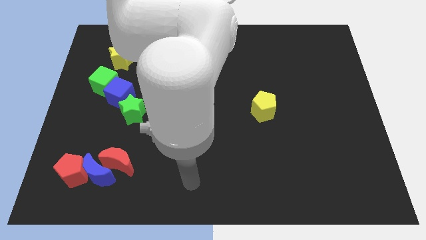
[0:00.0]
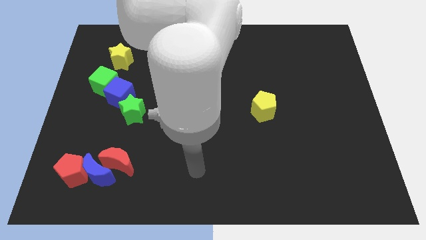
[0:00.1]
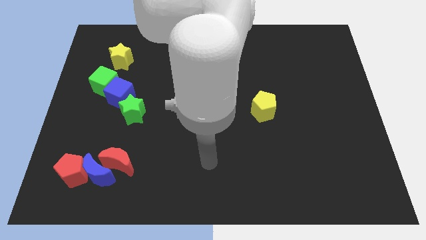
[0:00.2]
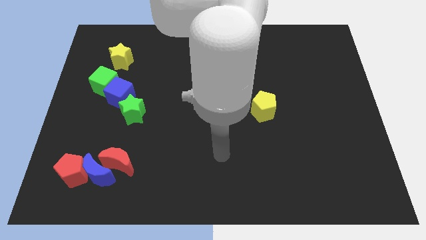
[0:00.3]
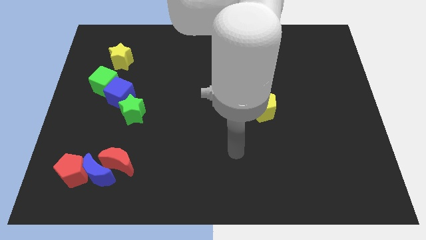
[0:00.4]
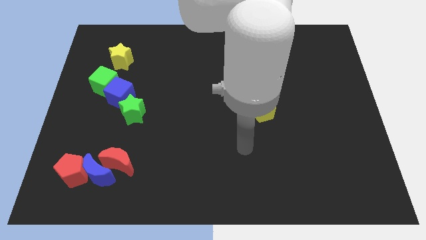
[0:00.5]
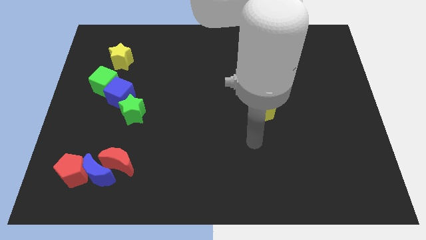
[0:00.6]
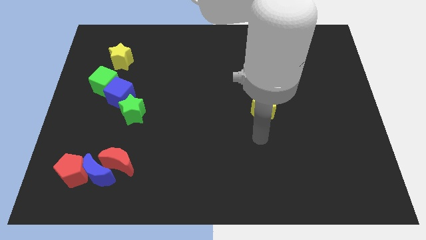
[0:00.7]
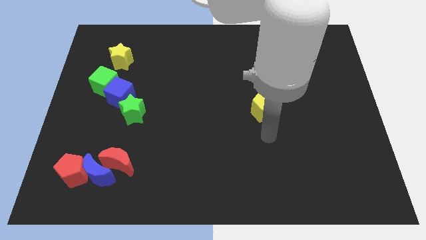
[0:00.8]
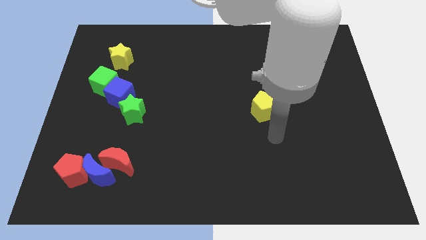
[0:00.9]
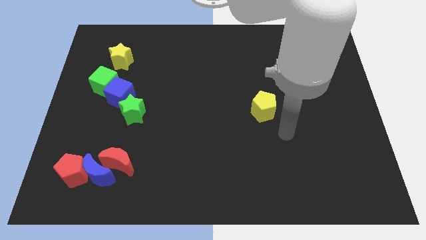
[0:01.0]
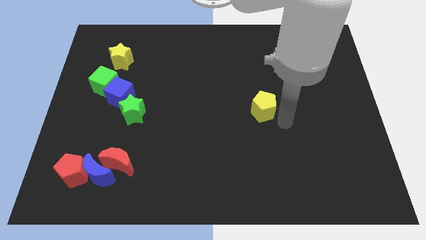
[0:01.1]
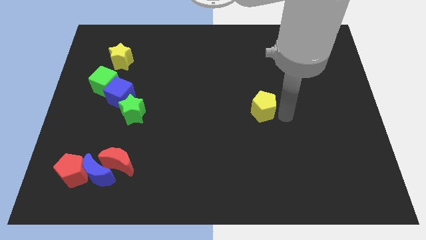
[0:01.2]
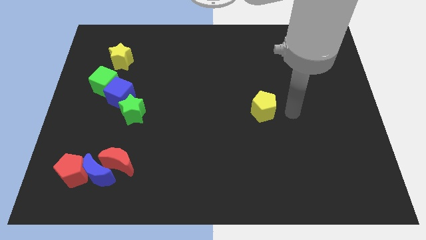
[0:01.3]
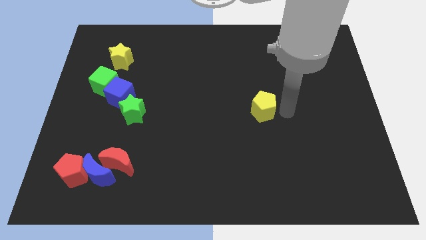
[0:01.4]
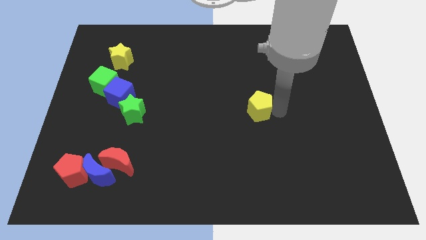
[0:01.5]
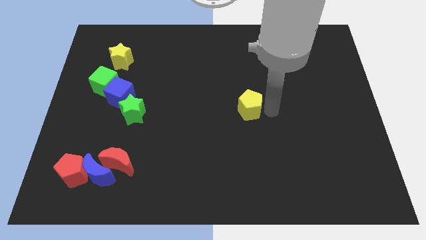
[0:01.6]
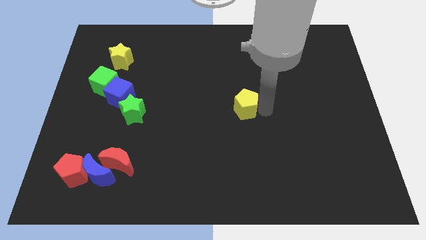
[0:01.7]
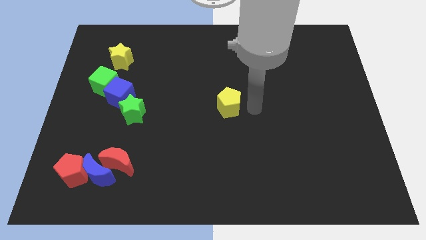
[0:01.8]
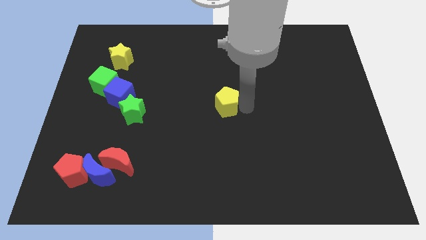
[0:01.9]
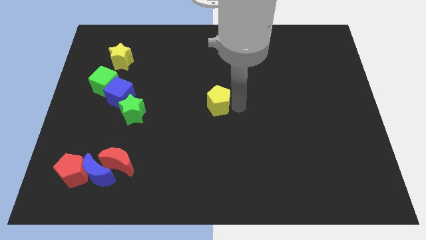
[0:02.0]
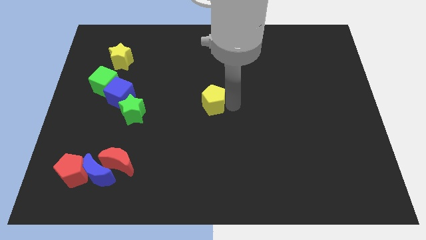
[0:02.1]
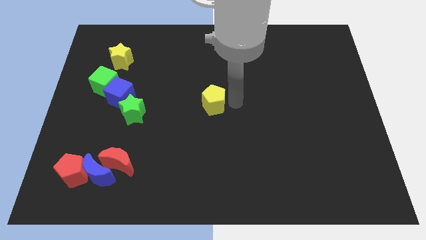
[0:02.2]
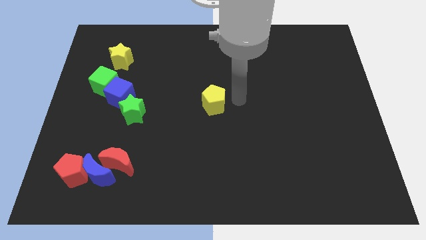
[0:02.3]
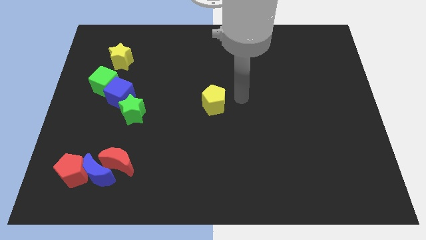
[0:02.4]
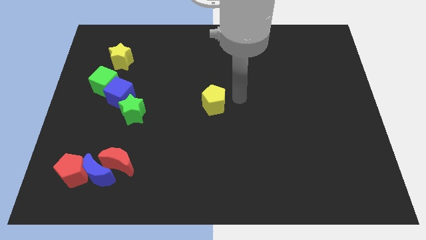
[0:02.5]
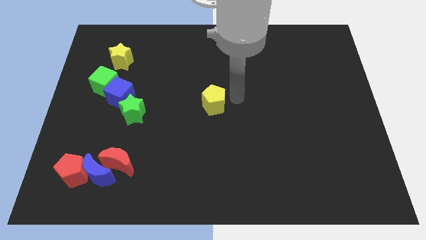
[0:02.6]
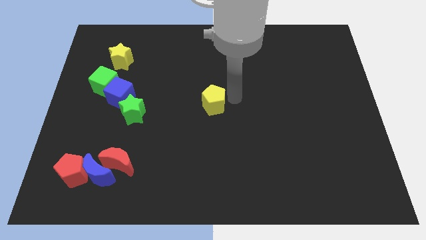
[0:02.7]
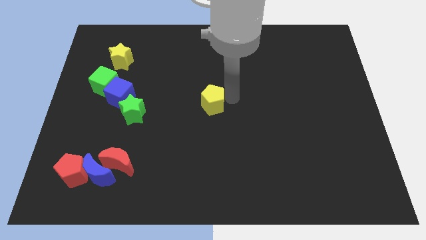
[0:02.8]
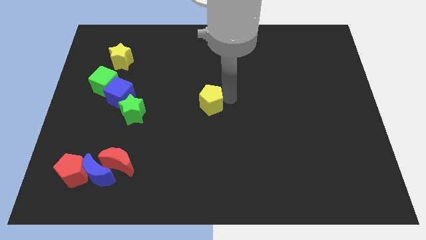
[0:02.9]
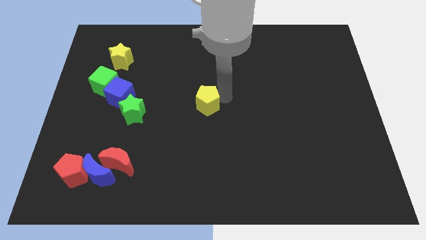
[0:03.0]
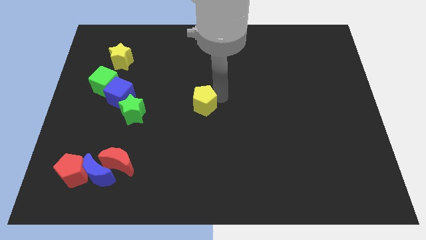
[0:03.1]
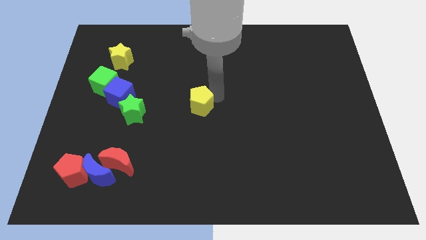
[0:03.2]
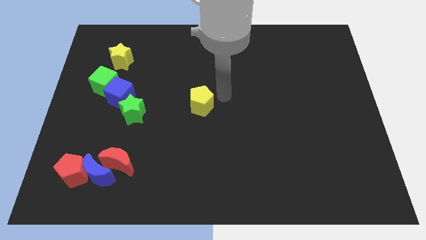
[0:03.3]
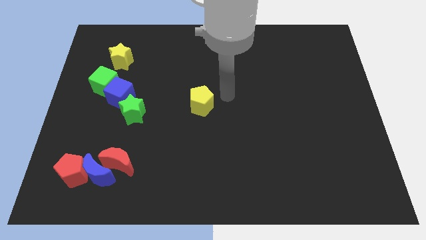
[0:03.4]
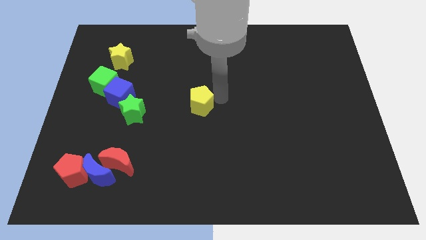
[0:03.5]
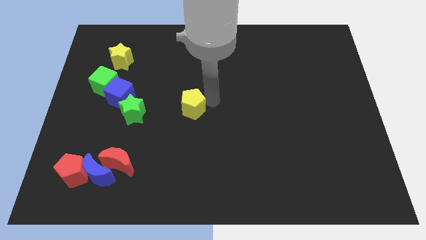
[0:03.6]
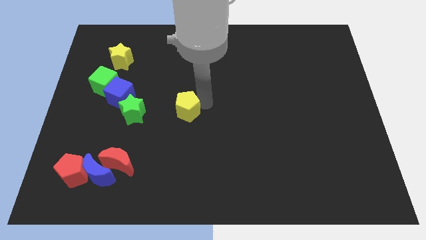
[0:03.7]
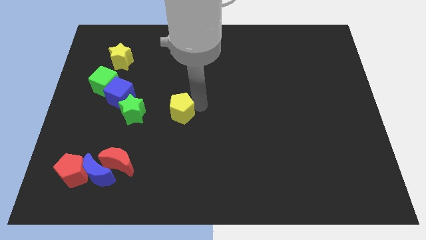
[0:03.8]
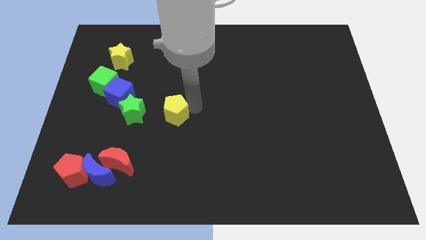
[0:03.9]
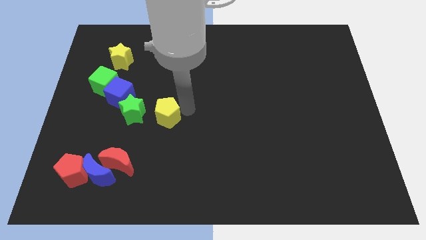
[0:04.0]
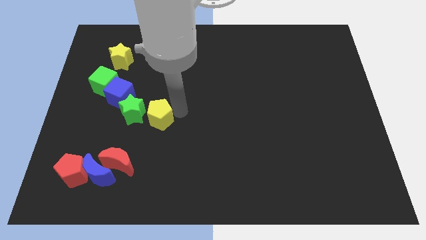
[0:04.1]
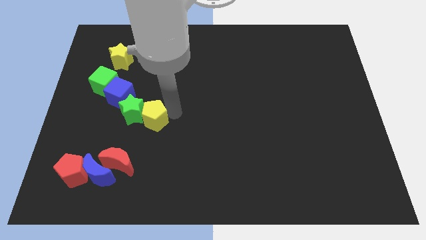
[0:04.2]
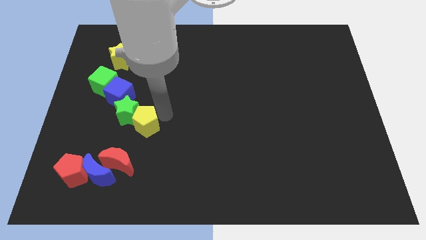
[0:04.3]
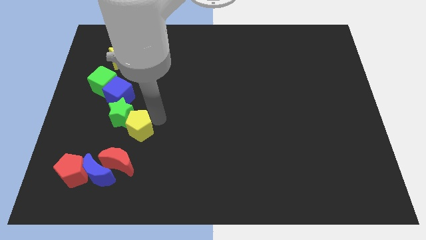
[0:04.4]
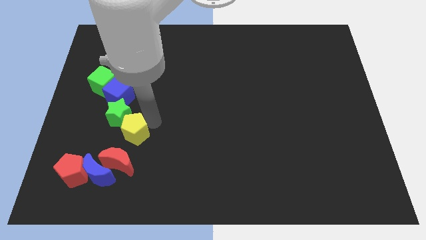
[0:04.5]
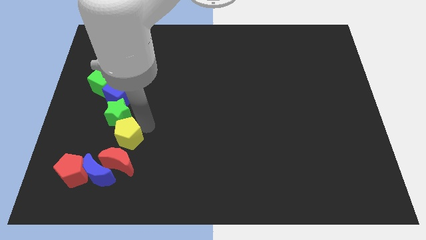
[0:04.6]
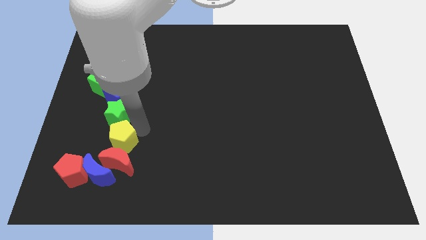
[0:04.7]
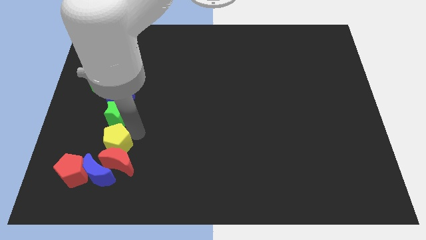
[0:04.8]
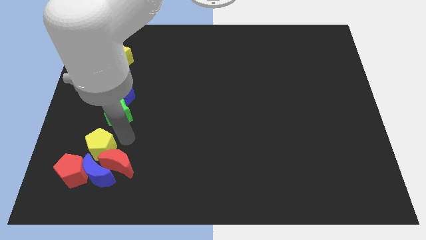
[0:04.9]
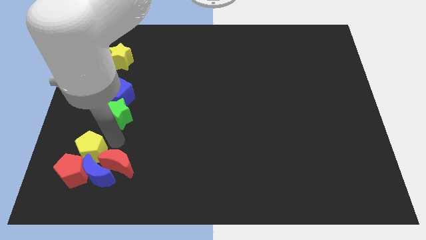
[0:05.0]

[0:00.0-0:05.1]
move the yellow pentagon close to the red pentagon

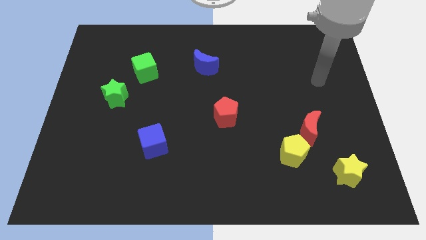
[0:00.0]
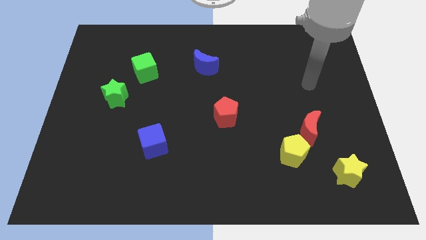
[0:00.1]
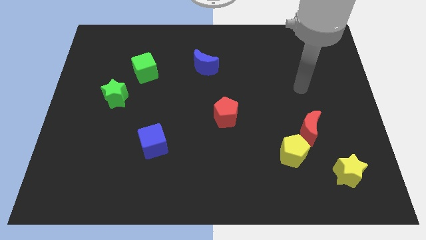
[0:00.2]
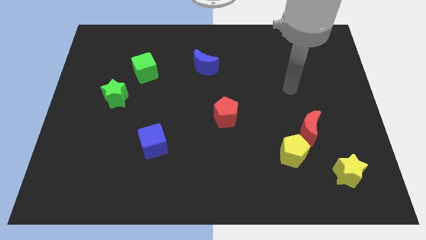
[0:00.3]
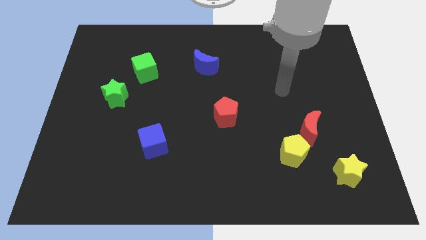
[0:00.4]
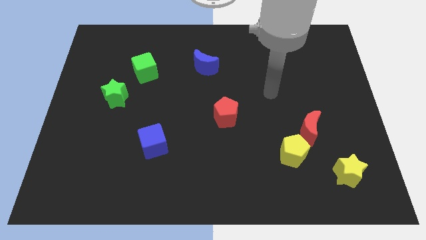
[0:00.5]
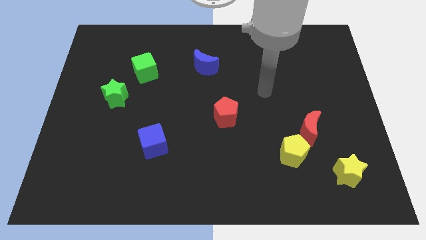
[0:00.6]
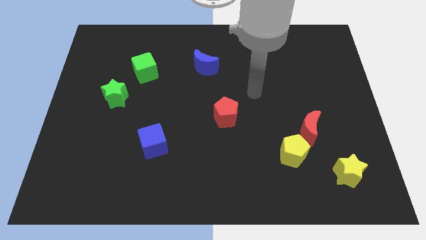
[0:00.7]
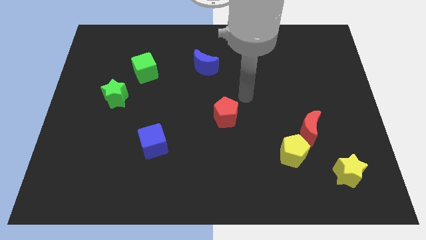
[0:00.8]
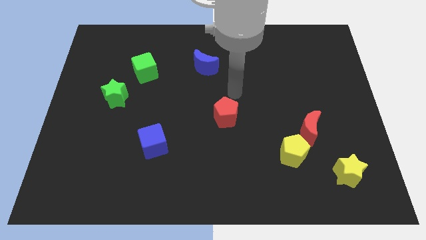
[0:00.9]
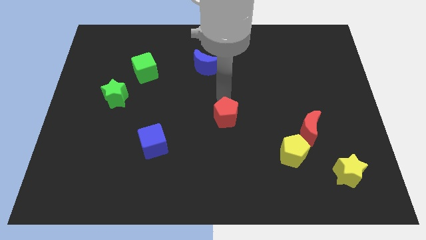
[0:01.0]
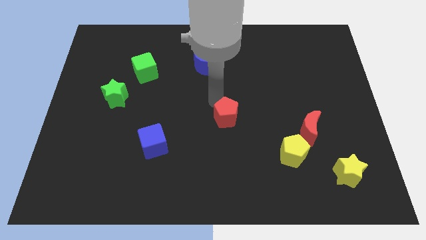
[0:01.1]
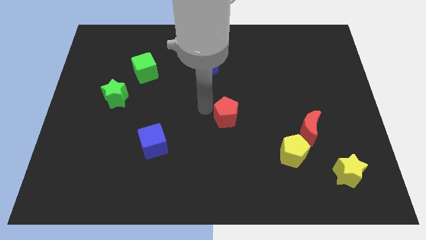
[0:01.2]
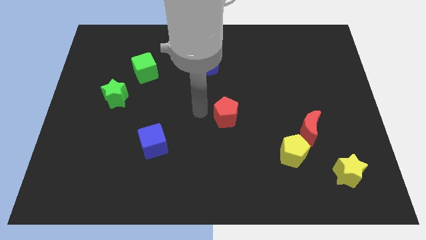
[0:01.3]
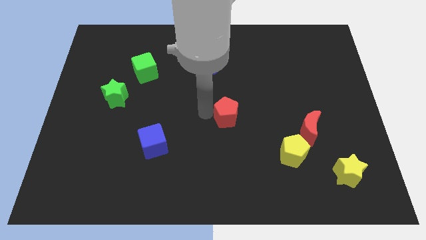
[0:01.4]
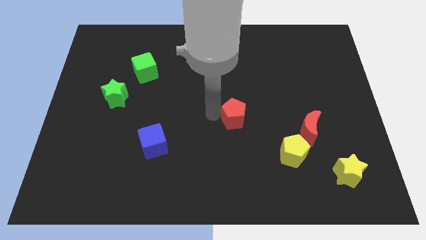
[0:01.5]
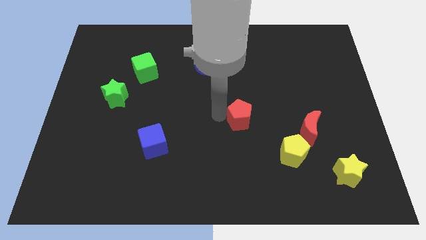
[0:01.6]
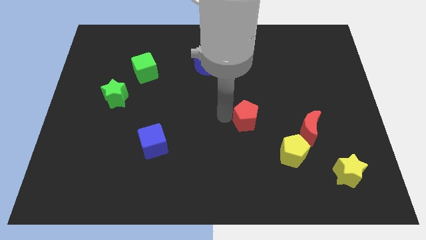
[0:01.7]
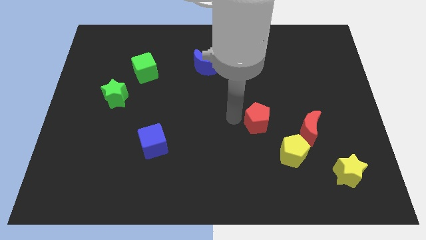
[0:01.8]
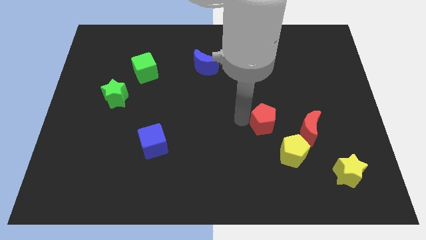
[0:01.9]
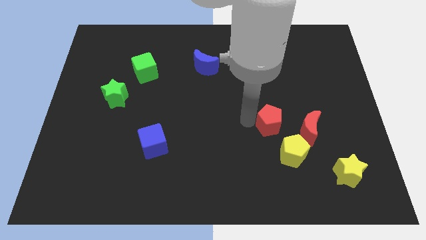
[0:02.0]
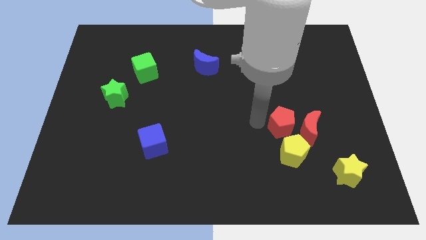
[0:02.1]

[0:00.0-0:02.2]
move the red pentagon next to the red moon

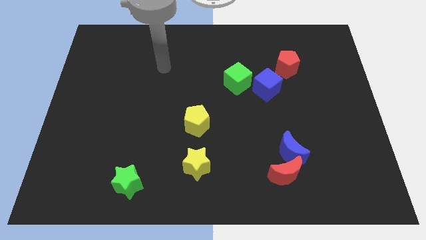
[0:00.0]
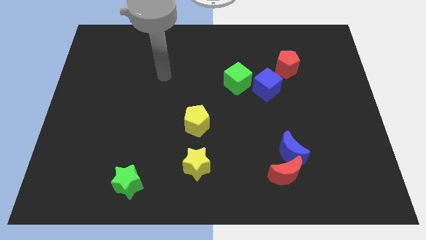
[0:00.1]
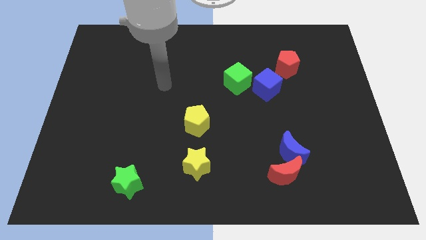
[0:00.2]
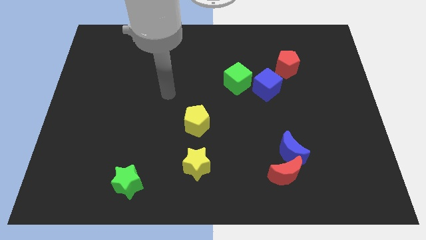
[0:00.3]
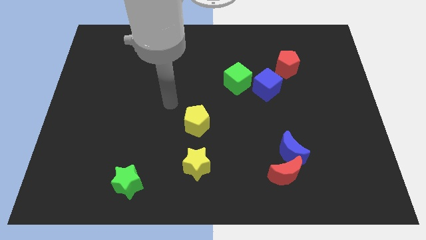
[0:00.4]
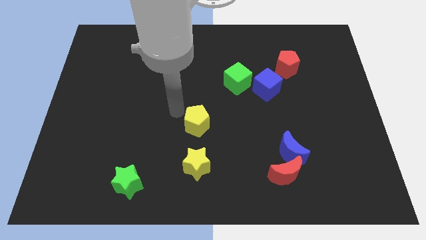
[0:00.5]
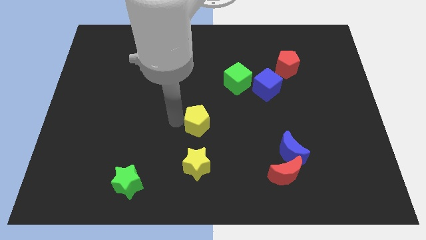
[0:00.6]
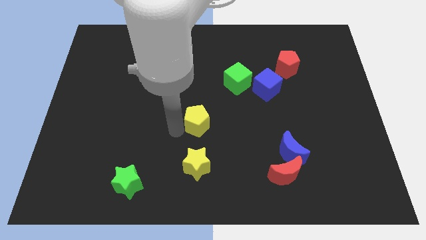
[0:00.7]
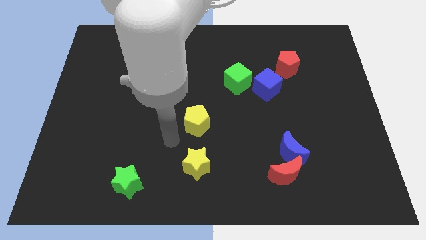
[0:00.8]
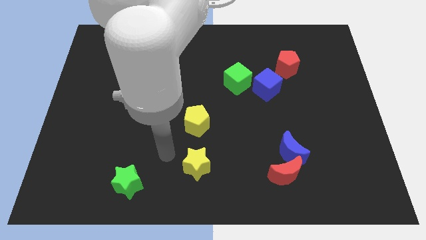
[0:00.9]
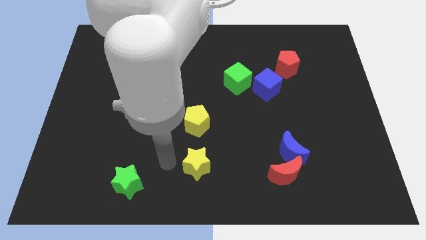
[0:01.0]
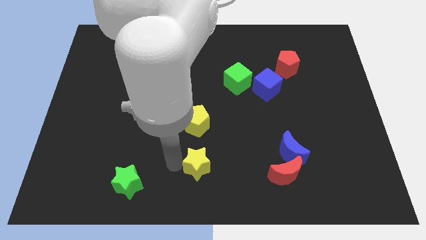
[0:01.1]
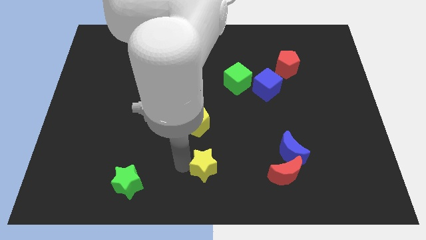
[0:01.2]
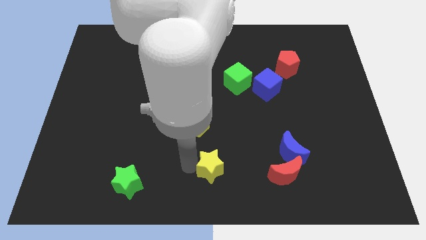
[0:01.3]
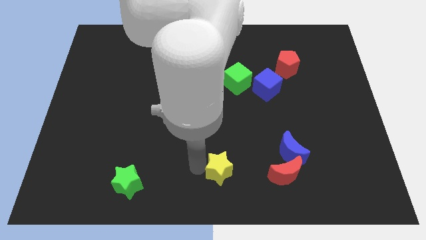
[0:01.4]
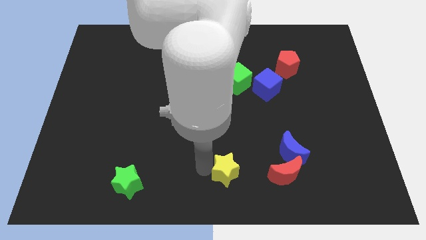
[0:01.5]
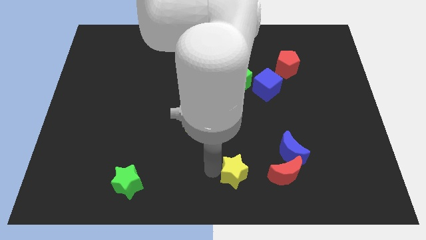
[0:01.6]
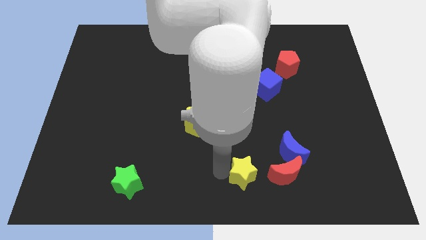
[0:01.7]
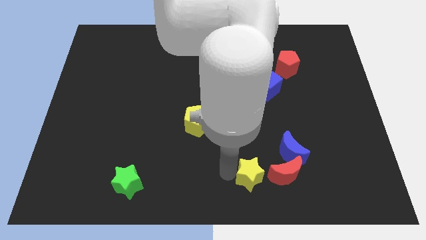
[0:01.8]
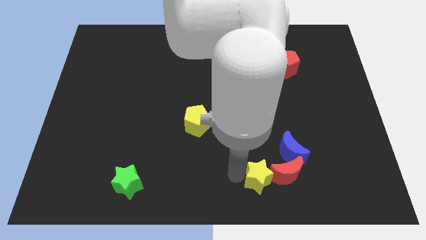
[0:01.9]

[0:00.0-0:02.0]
push the yellow star next to the red moon
